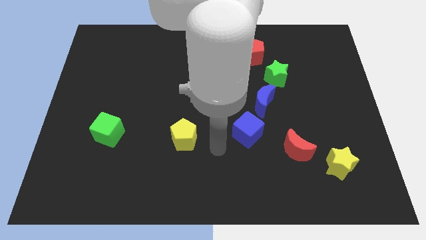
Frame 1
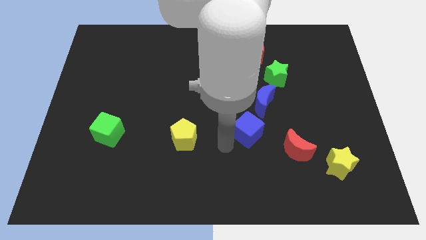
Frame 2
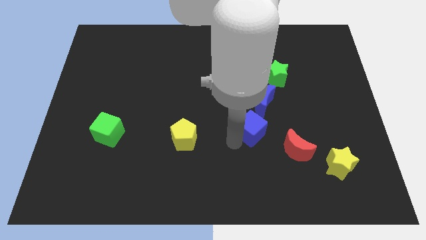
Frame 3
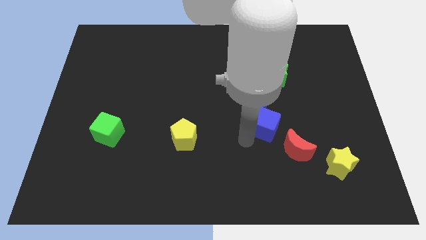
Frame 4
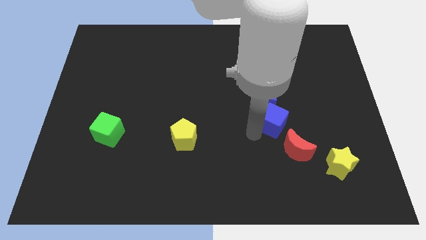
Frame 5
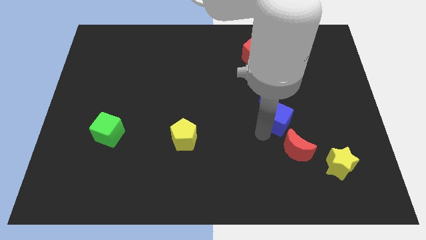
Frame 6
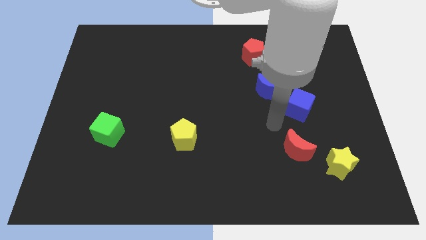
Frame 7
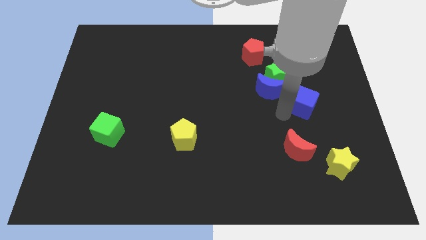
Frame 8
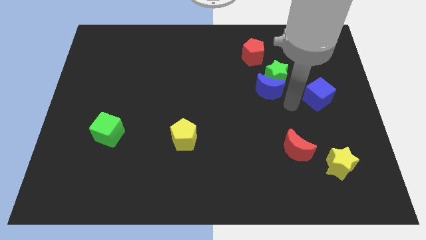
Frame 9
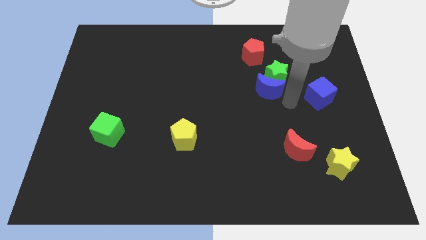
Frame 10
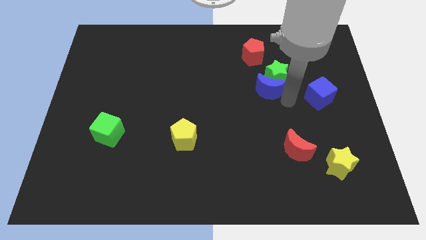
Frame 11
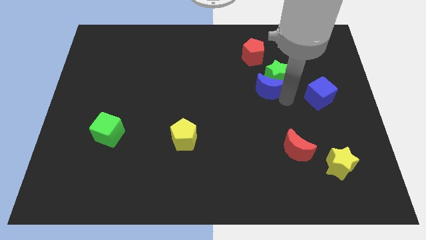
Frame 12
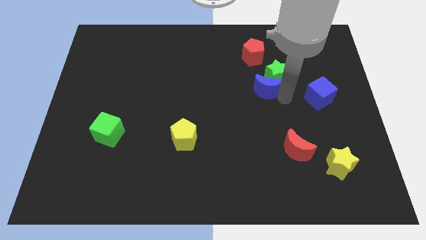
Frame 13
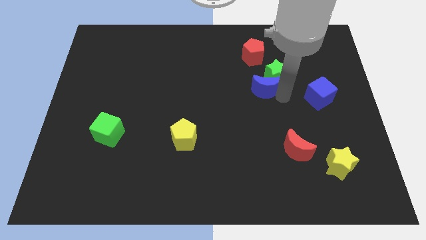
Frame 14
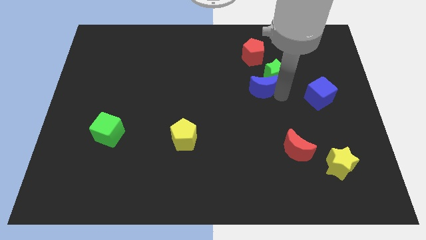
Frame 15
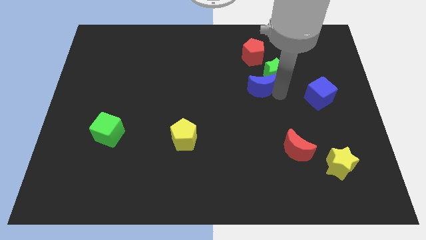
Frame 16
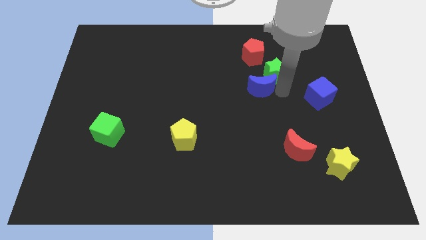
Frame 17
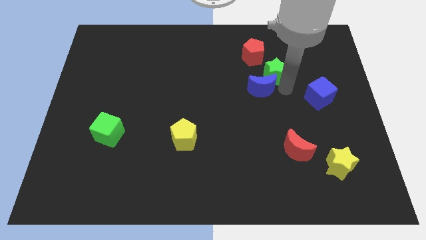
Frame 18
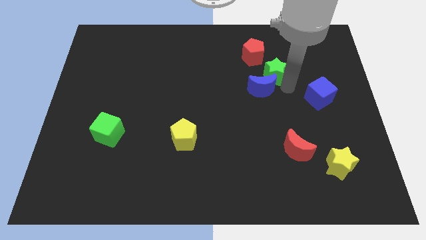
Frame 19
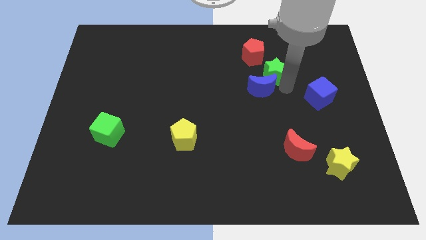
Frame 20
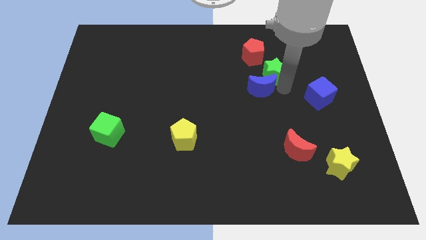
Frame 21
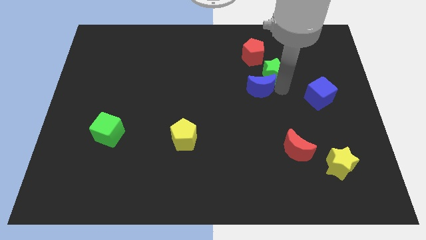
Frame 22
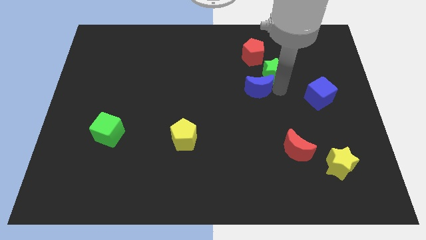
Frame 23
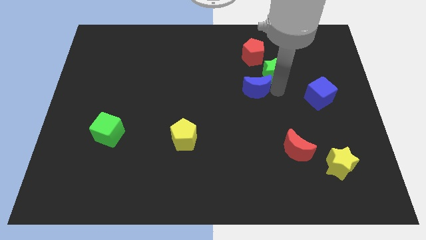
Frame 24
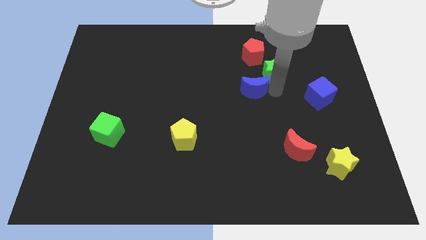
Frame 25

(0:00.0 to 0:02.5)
pull the blue moon apart from the green star and blue cube

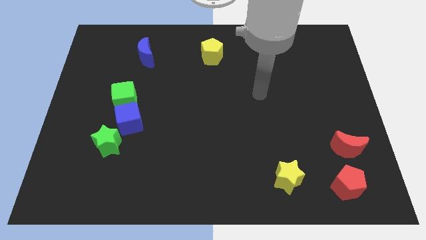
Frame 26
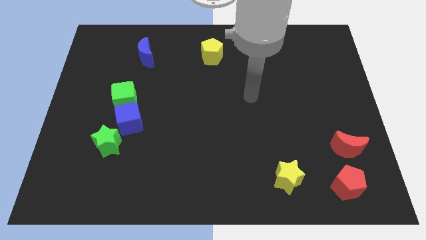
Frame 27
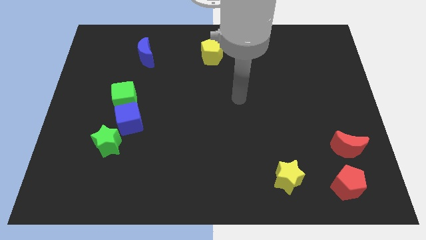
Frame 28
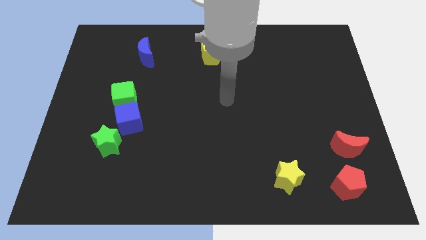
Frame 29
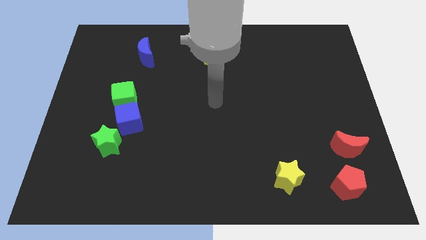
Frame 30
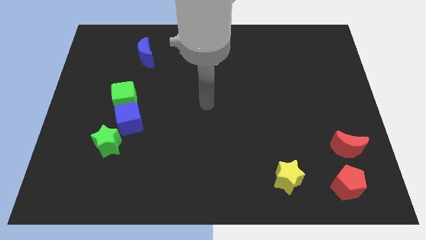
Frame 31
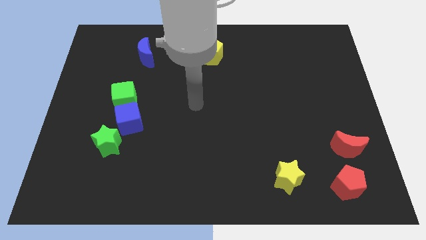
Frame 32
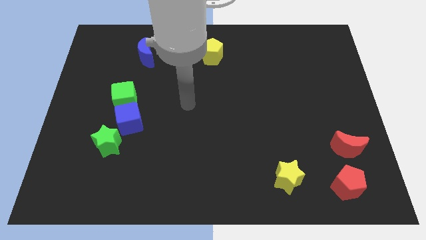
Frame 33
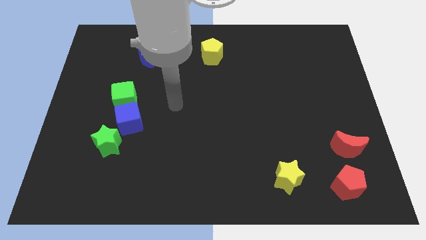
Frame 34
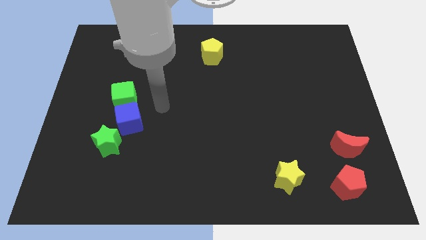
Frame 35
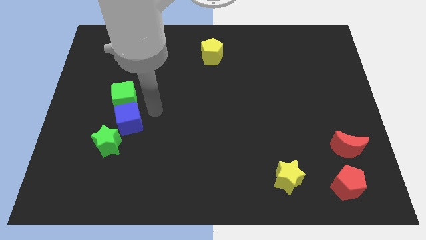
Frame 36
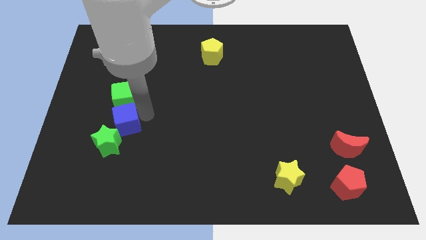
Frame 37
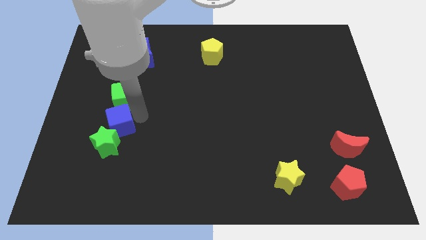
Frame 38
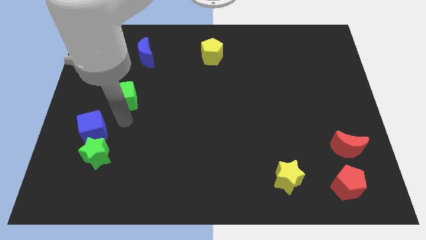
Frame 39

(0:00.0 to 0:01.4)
pull the green cube apart from the blue cube

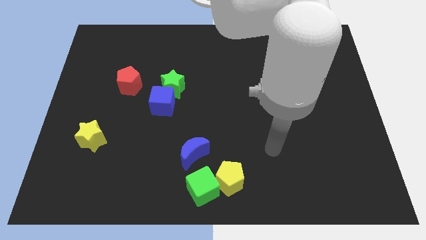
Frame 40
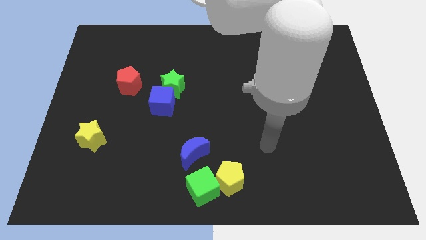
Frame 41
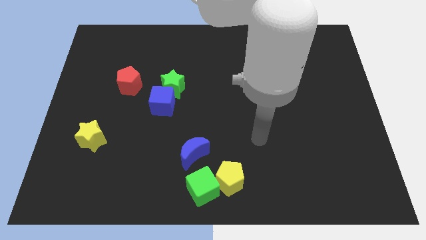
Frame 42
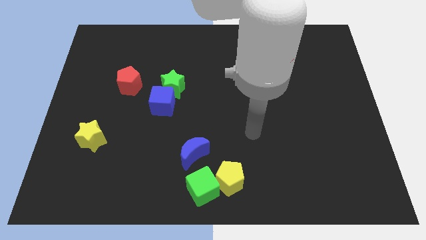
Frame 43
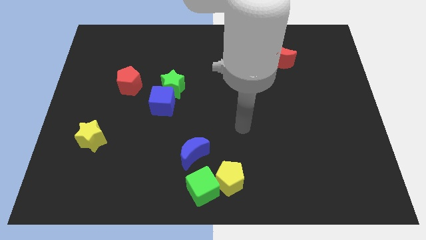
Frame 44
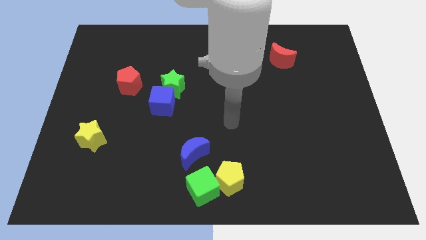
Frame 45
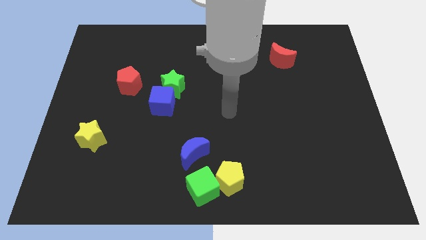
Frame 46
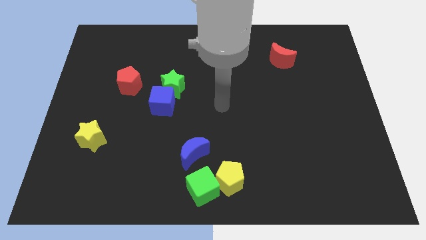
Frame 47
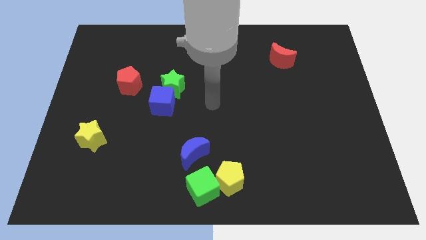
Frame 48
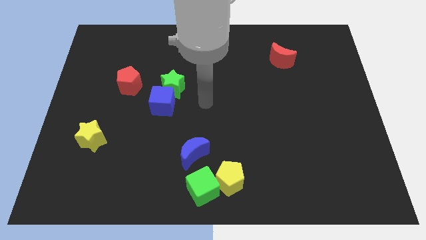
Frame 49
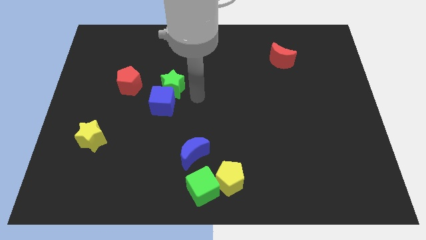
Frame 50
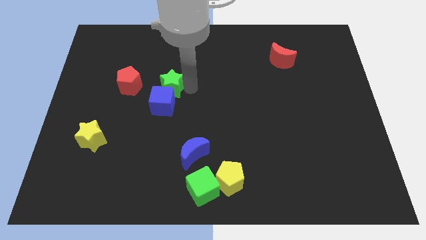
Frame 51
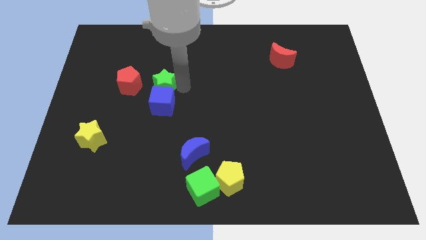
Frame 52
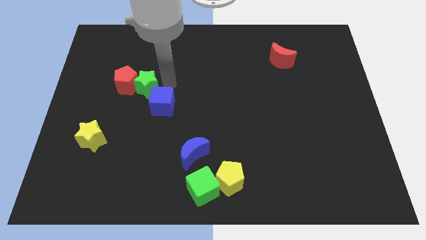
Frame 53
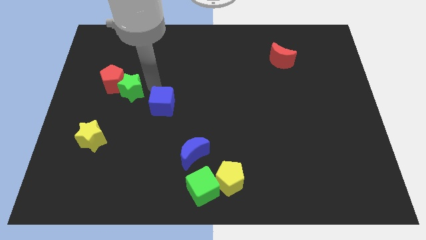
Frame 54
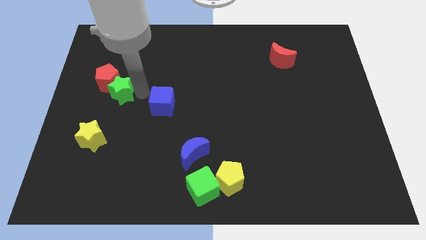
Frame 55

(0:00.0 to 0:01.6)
move the blue cube away from the green star

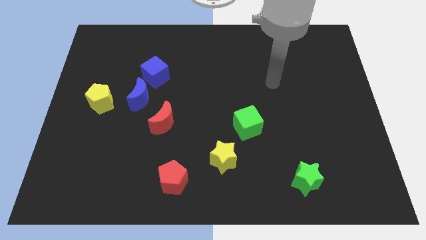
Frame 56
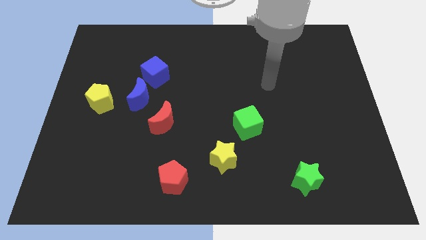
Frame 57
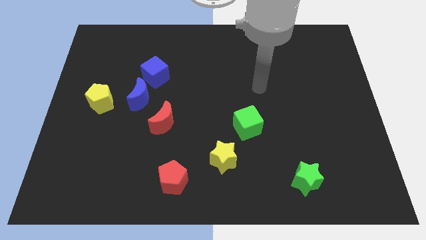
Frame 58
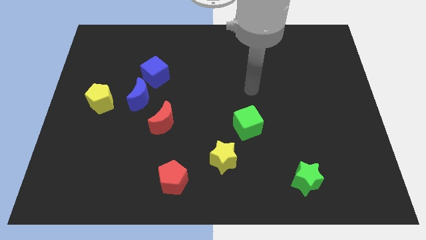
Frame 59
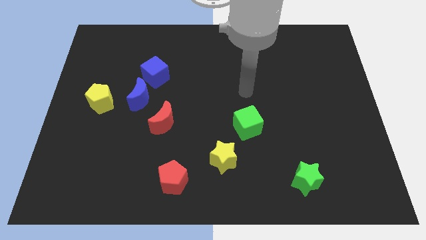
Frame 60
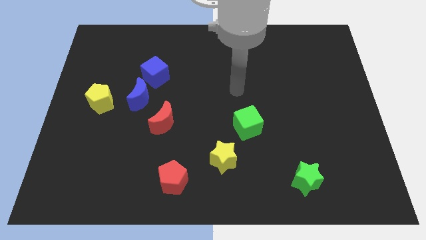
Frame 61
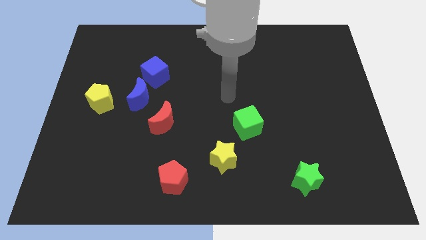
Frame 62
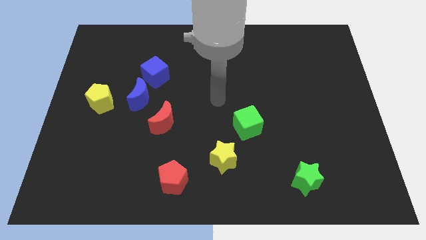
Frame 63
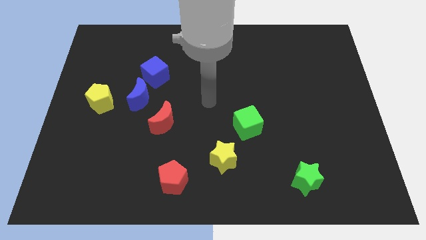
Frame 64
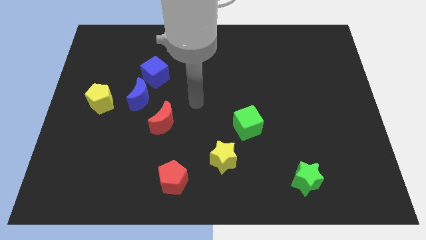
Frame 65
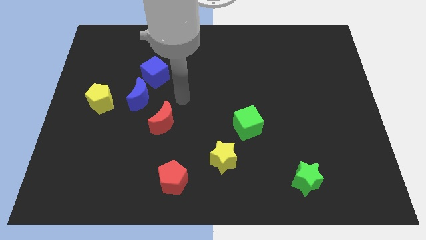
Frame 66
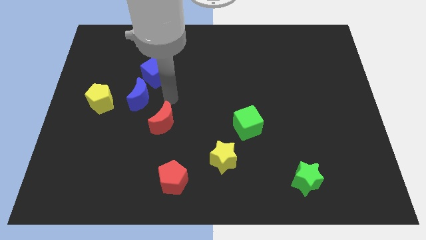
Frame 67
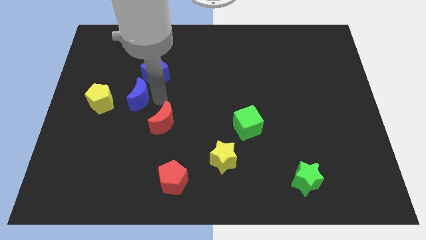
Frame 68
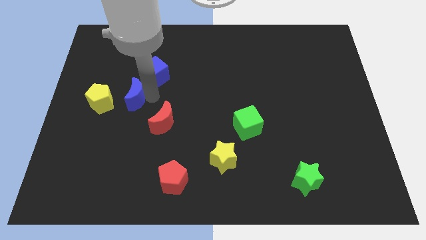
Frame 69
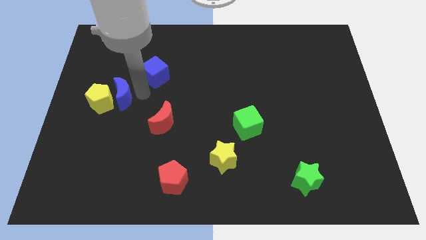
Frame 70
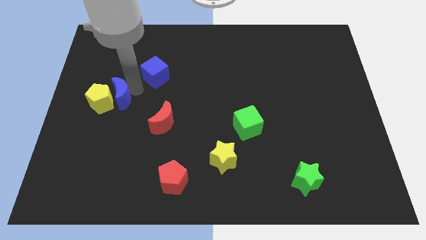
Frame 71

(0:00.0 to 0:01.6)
pull the blue cube apart from the blue moon

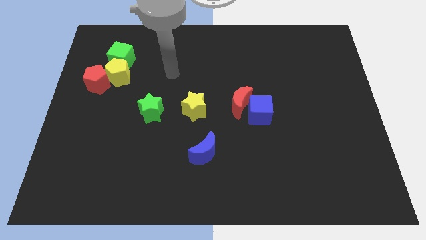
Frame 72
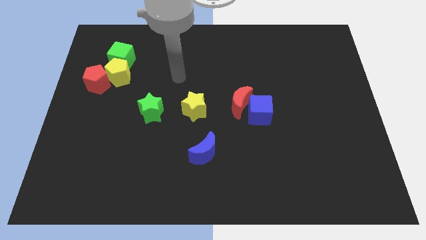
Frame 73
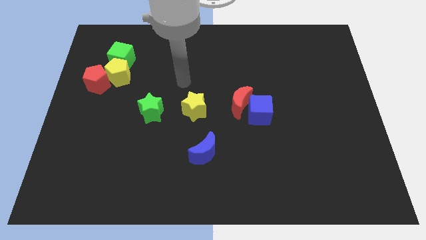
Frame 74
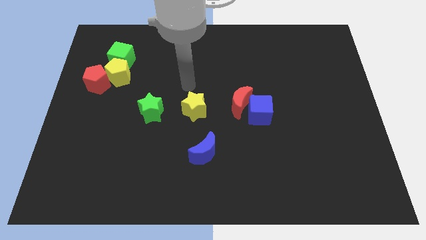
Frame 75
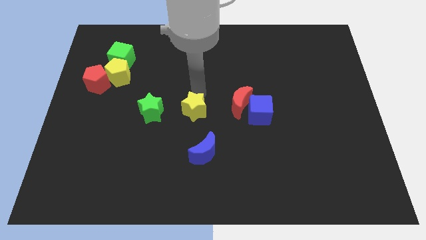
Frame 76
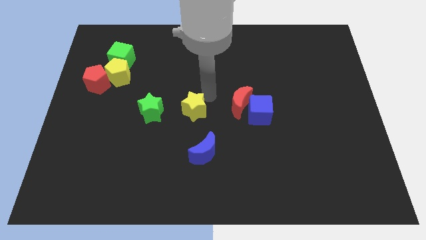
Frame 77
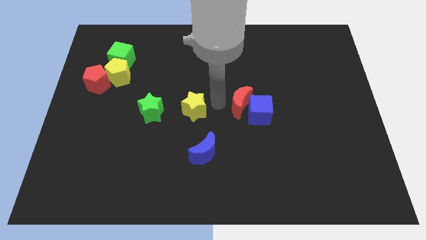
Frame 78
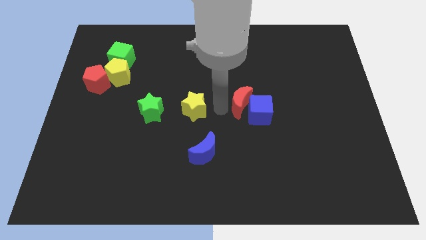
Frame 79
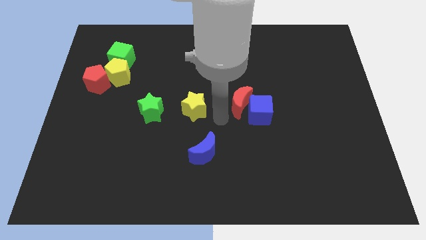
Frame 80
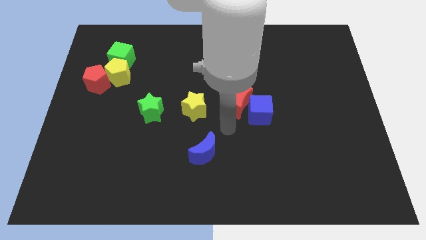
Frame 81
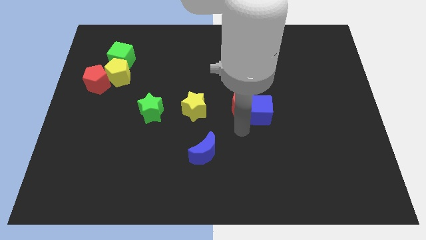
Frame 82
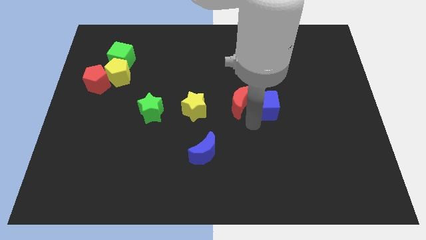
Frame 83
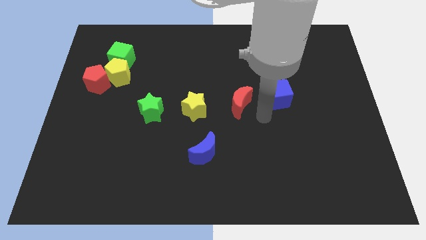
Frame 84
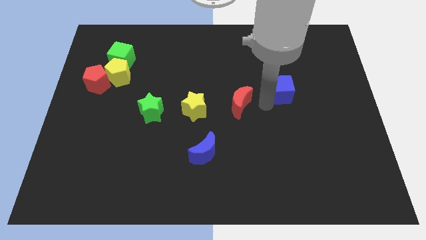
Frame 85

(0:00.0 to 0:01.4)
separate the red moon from the blue cube

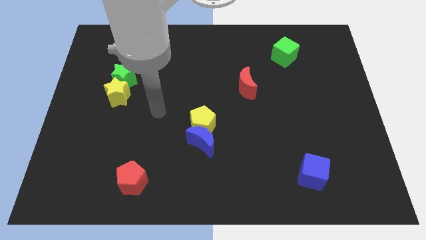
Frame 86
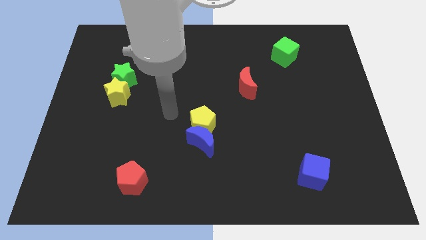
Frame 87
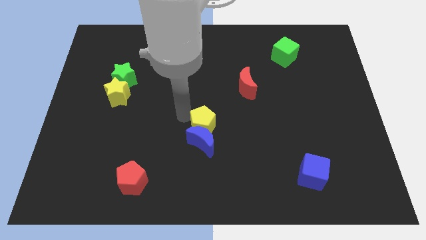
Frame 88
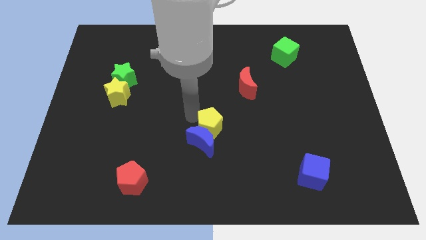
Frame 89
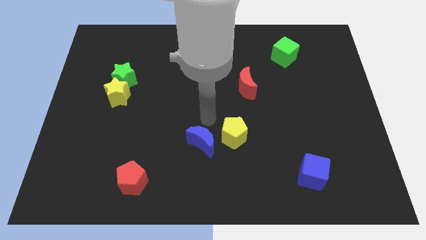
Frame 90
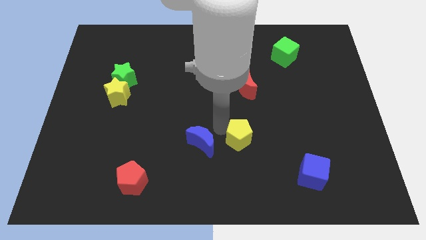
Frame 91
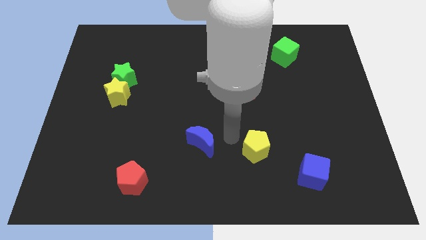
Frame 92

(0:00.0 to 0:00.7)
separate the blue moon from the yellow pentagon

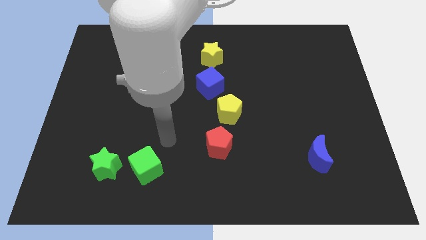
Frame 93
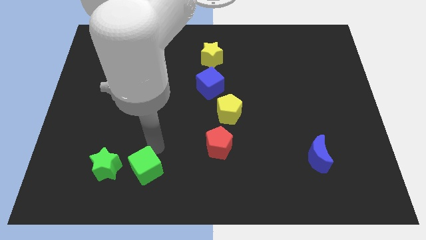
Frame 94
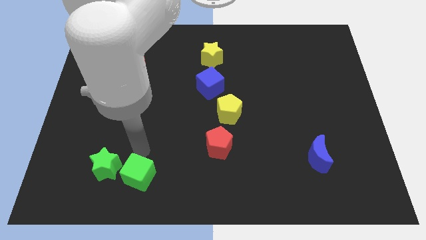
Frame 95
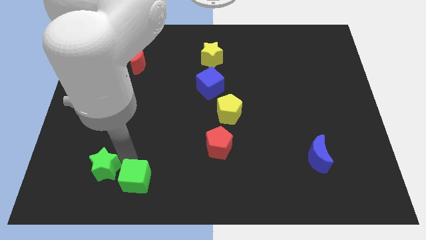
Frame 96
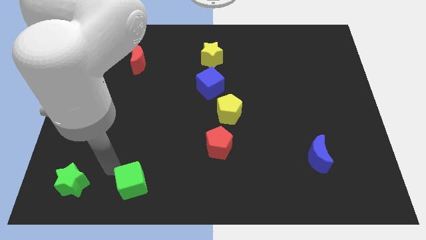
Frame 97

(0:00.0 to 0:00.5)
pull the green cube apart from the green star
